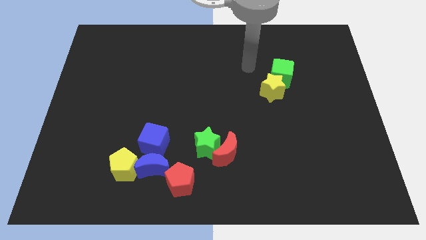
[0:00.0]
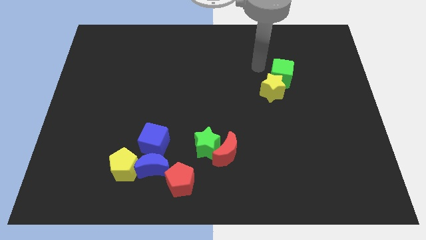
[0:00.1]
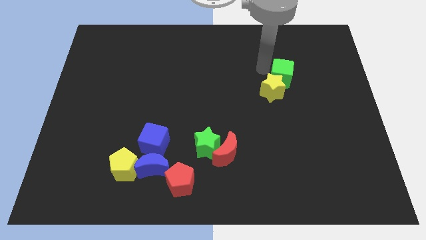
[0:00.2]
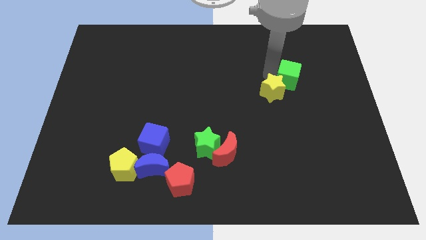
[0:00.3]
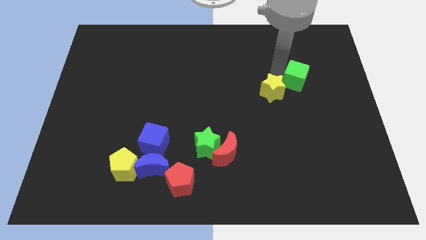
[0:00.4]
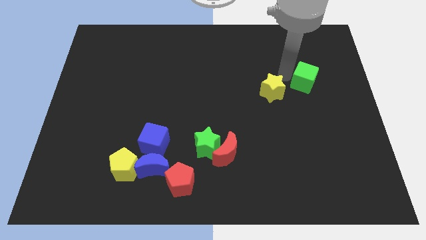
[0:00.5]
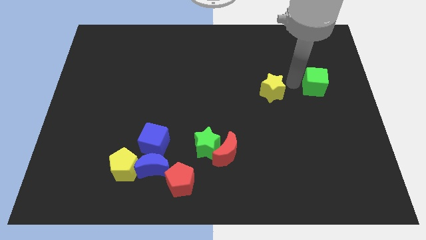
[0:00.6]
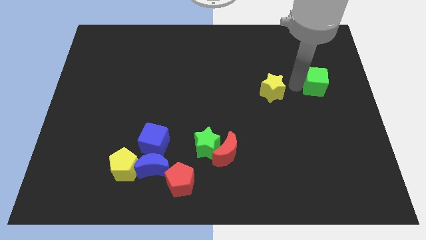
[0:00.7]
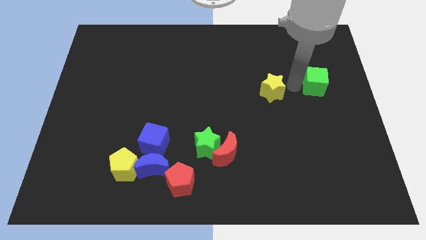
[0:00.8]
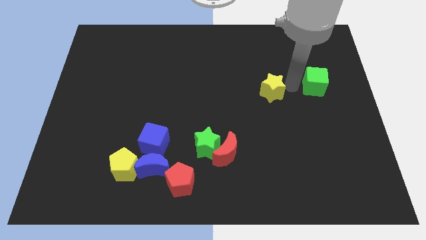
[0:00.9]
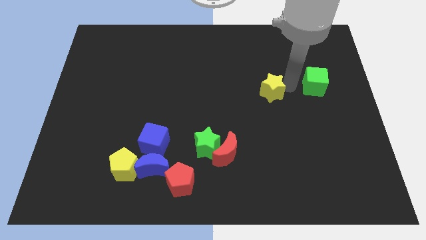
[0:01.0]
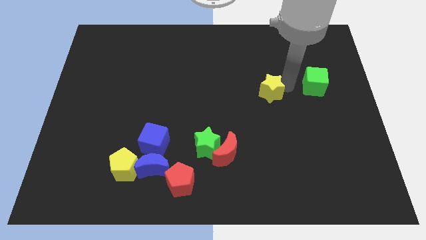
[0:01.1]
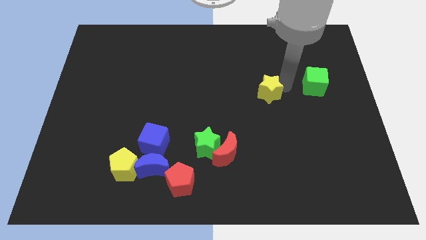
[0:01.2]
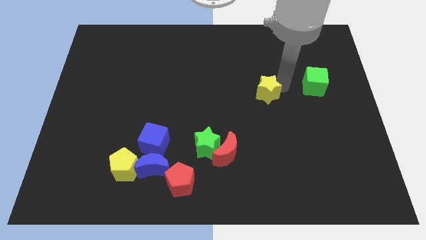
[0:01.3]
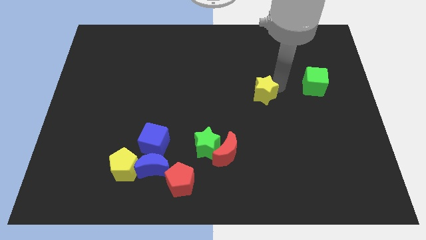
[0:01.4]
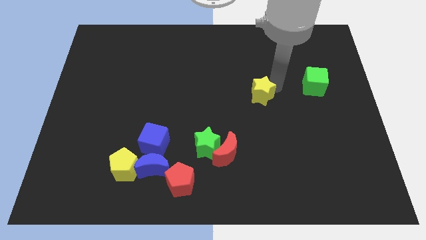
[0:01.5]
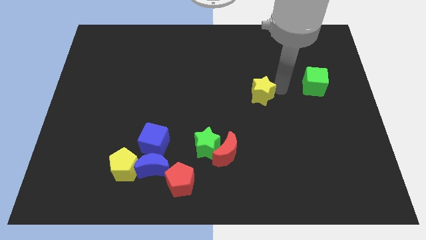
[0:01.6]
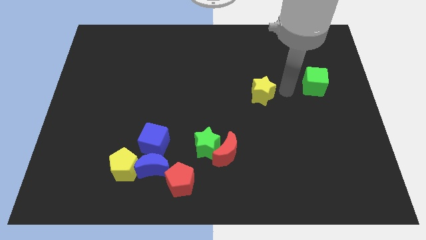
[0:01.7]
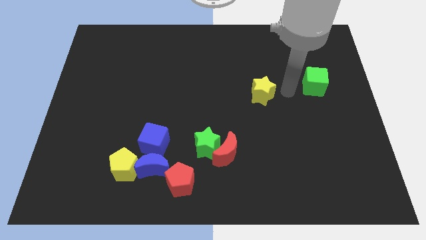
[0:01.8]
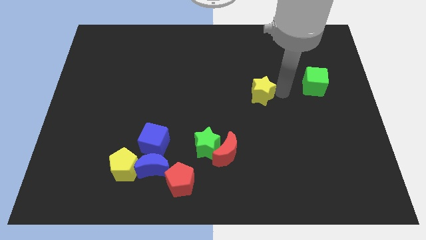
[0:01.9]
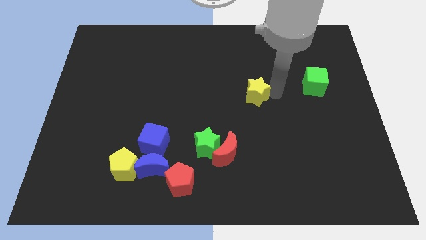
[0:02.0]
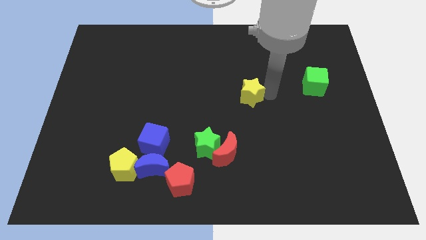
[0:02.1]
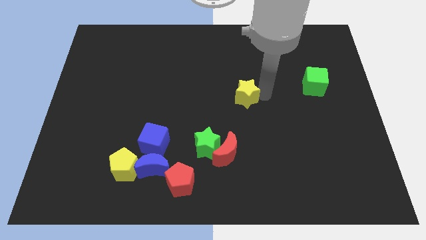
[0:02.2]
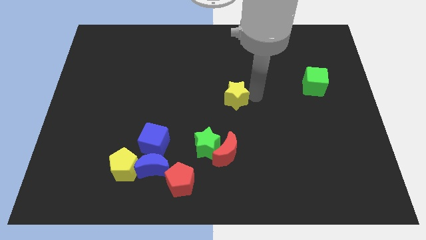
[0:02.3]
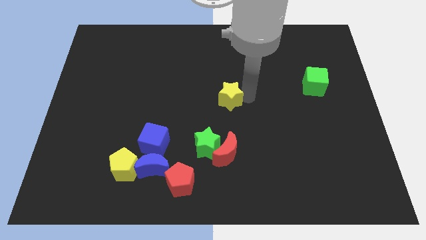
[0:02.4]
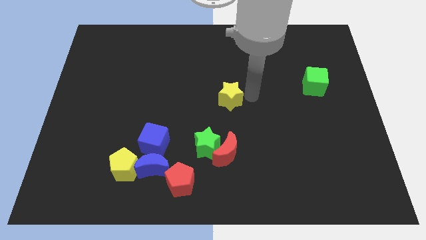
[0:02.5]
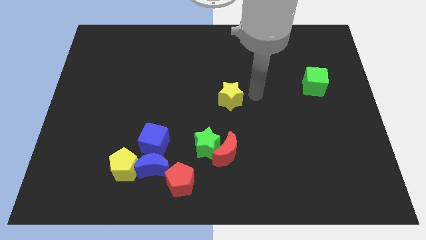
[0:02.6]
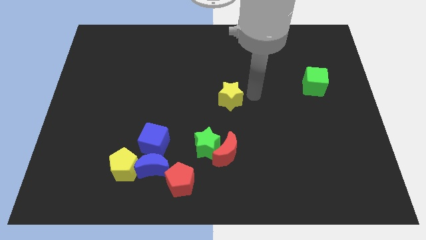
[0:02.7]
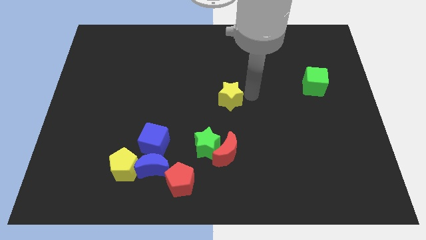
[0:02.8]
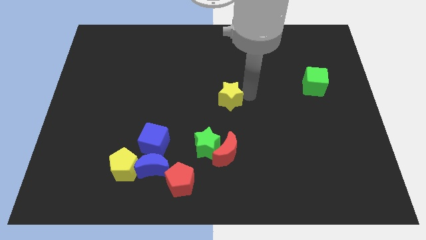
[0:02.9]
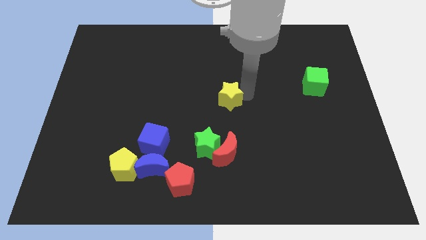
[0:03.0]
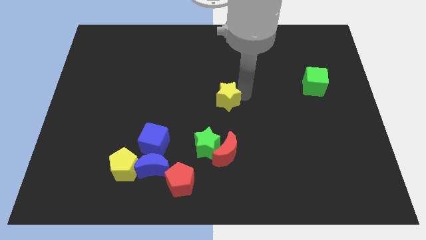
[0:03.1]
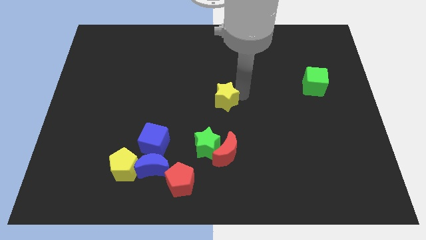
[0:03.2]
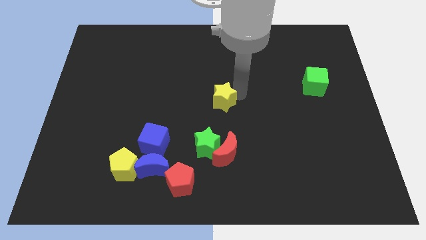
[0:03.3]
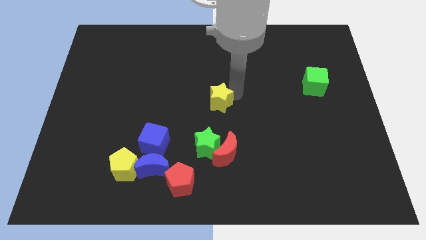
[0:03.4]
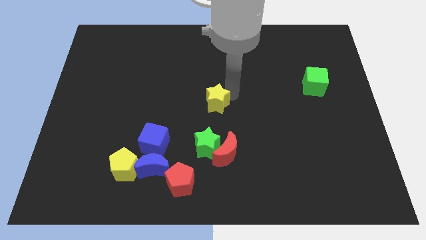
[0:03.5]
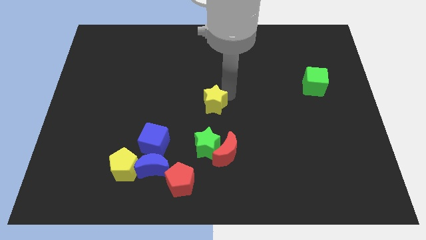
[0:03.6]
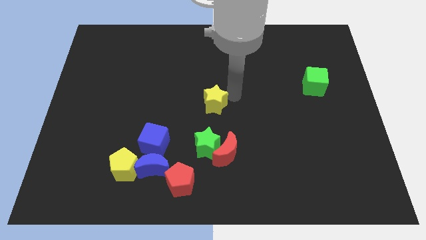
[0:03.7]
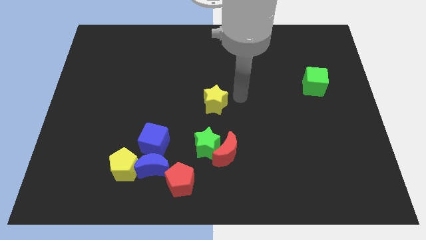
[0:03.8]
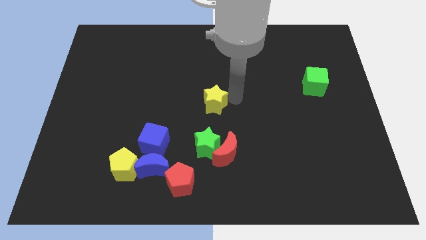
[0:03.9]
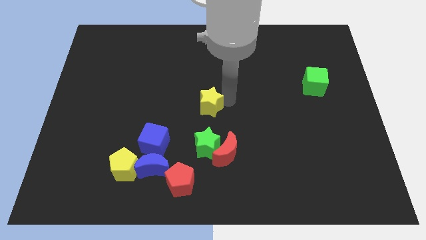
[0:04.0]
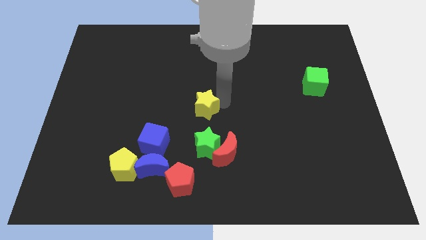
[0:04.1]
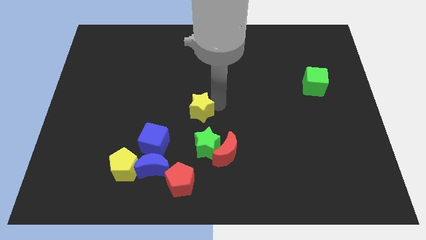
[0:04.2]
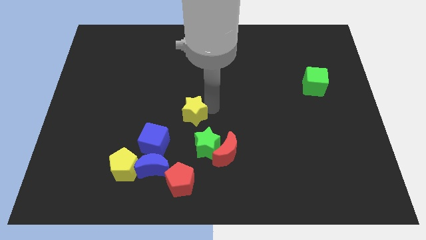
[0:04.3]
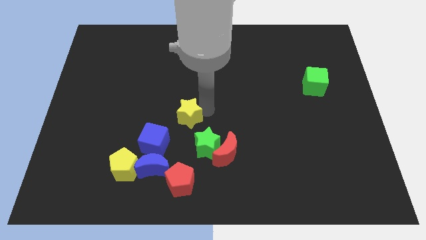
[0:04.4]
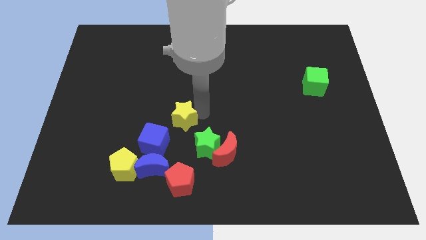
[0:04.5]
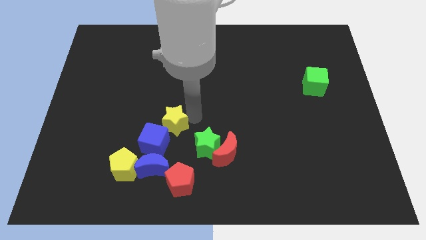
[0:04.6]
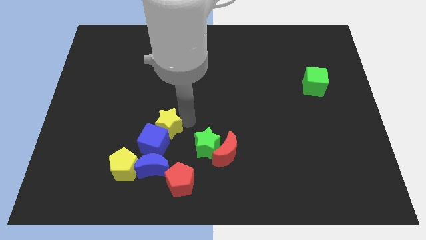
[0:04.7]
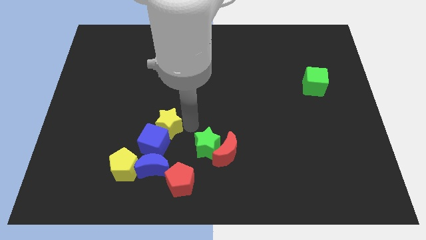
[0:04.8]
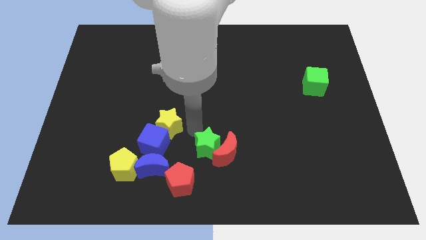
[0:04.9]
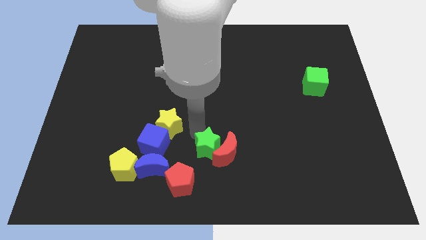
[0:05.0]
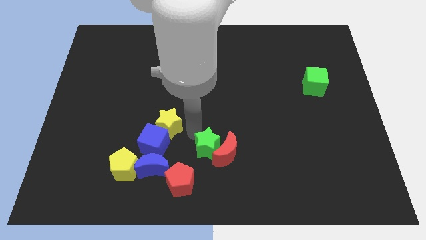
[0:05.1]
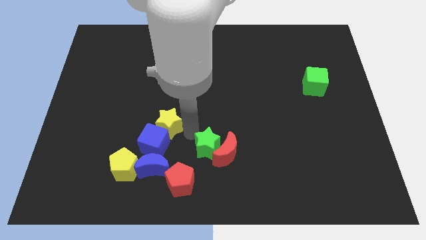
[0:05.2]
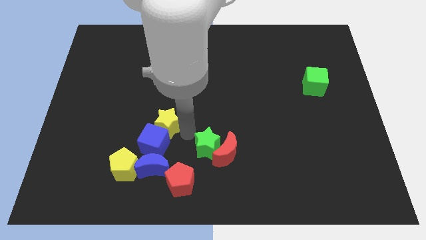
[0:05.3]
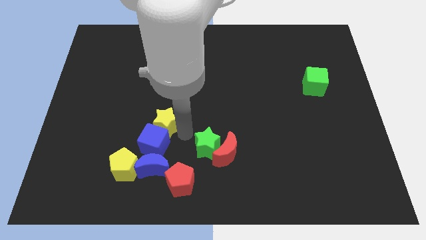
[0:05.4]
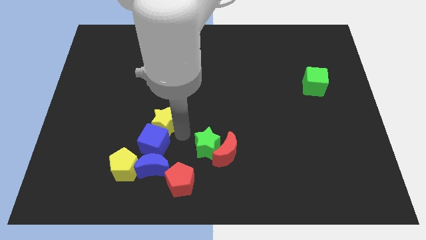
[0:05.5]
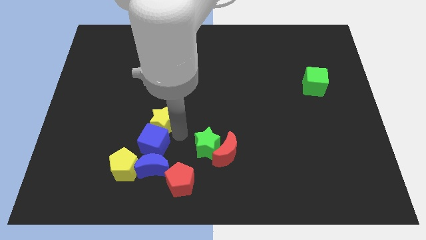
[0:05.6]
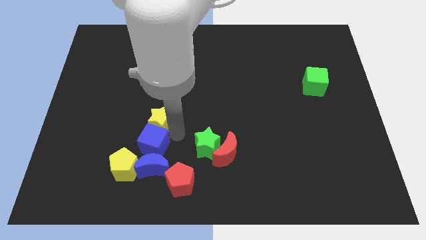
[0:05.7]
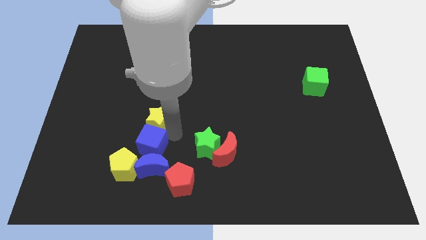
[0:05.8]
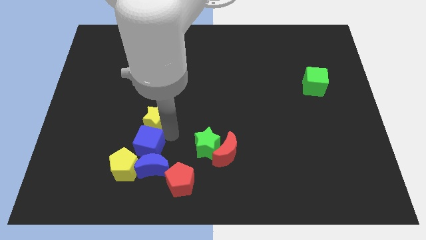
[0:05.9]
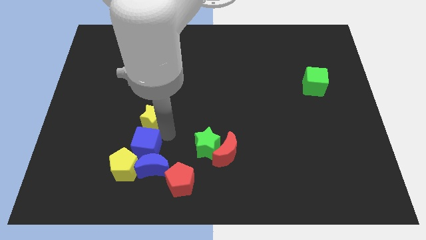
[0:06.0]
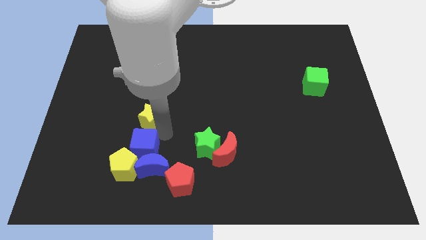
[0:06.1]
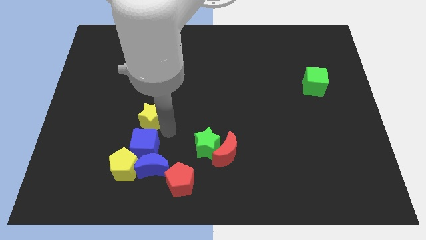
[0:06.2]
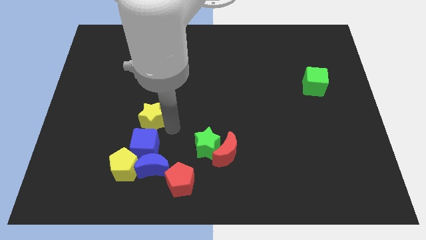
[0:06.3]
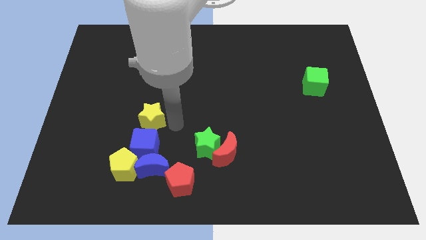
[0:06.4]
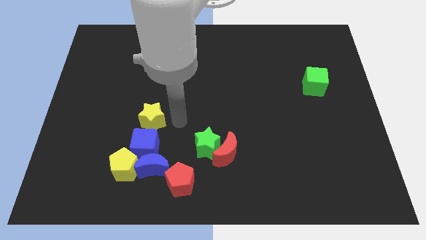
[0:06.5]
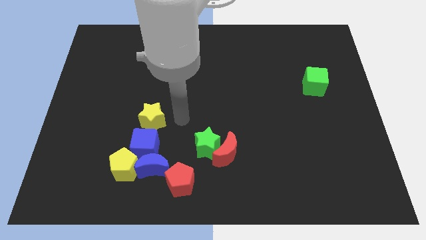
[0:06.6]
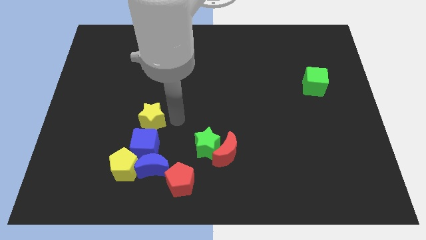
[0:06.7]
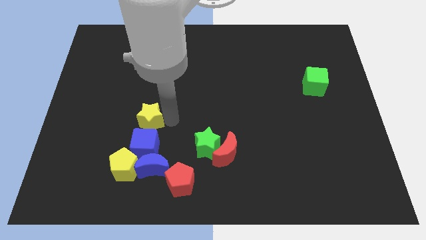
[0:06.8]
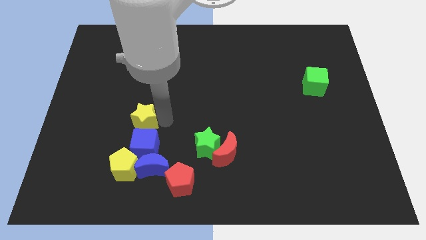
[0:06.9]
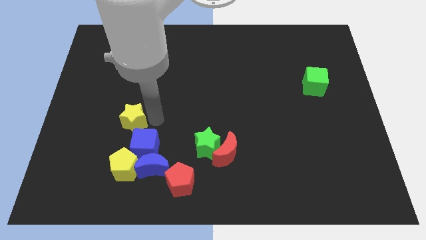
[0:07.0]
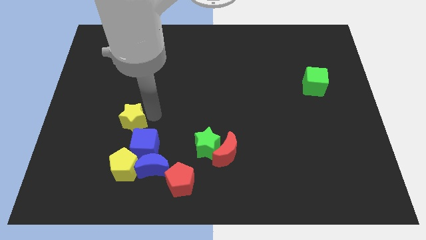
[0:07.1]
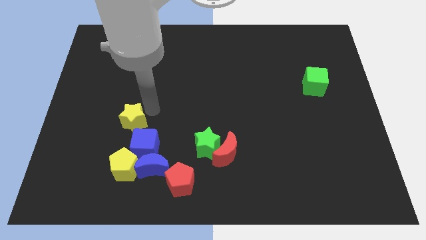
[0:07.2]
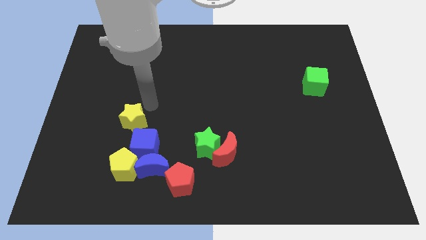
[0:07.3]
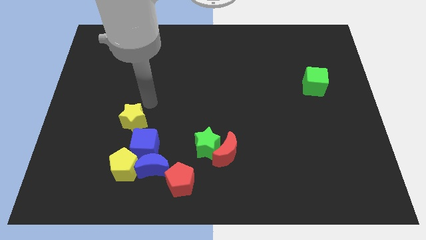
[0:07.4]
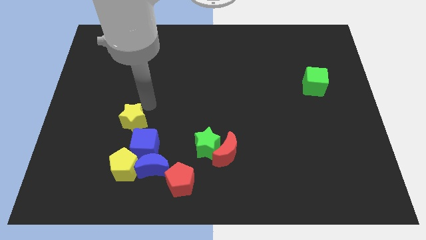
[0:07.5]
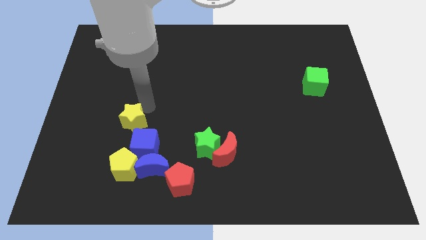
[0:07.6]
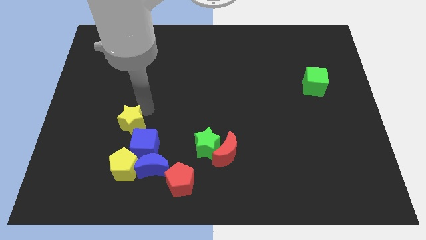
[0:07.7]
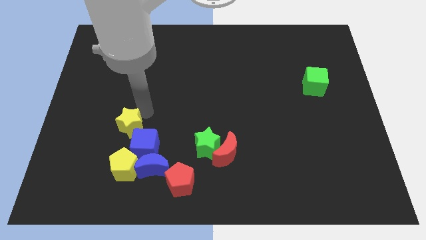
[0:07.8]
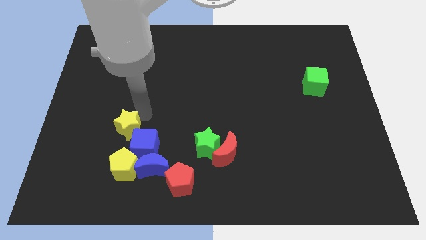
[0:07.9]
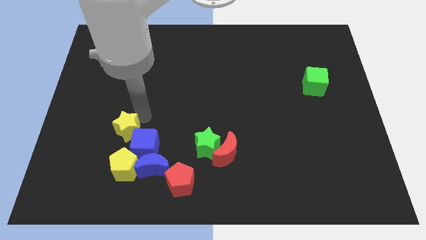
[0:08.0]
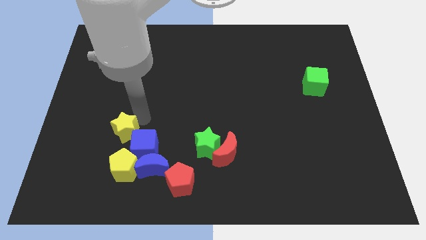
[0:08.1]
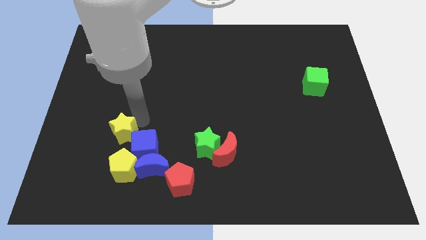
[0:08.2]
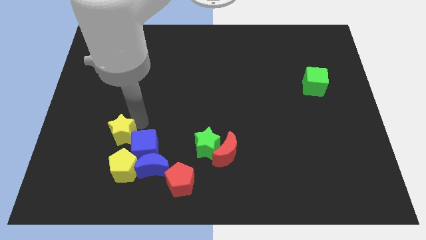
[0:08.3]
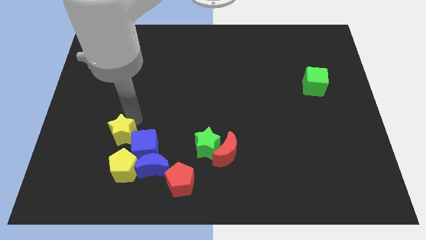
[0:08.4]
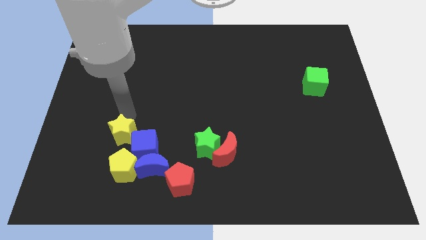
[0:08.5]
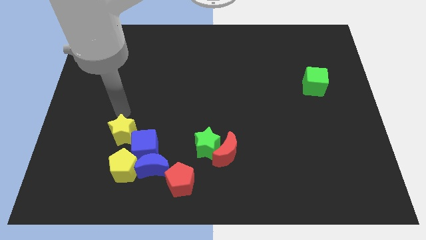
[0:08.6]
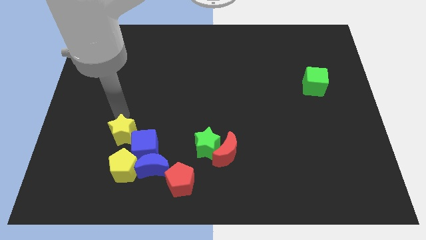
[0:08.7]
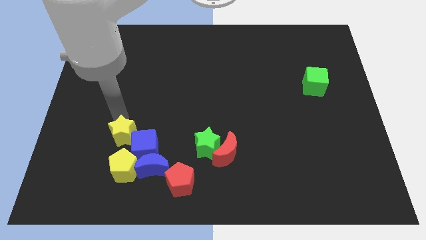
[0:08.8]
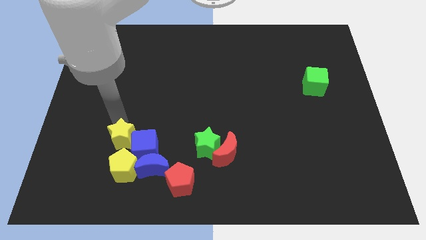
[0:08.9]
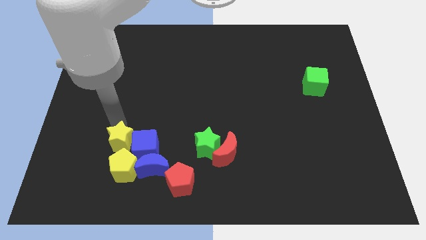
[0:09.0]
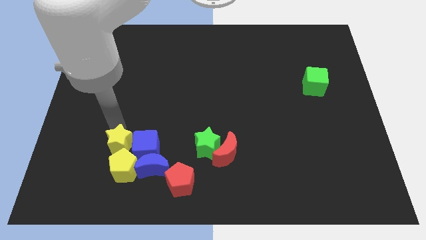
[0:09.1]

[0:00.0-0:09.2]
put the yellow star close to the yellow pentagon
